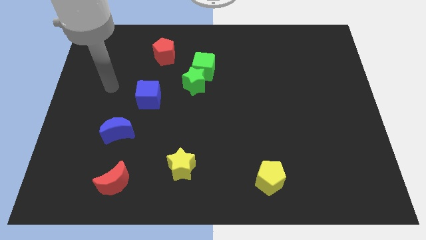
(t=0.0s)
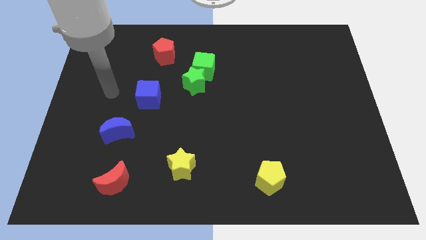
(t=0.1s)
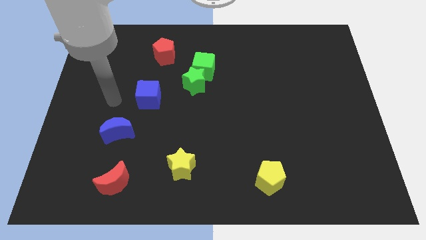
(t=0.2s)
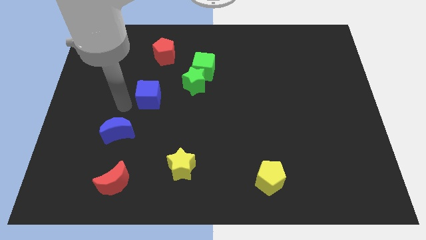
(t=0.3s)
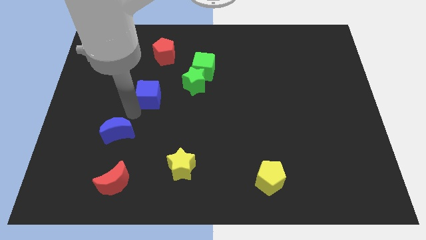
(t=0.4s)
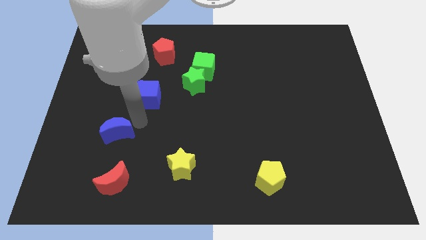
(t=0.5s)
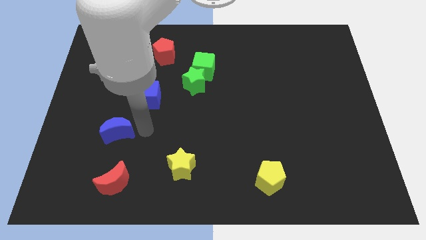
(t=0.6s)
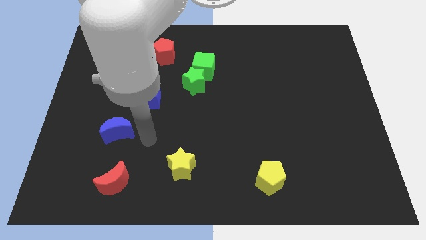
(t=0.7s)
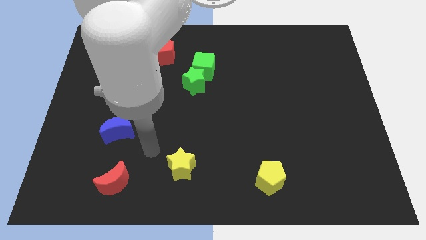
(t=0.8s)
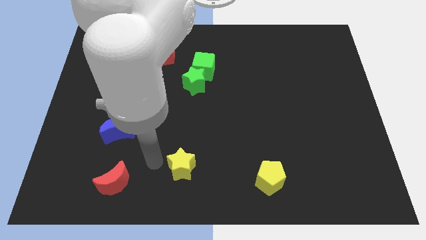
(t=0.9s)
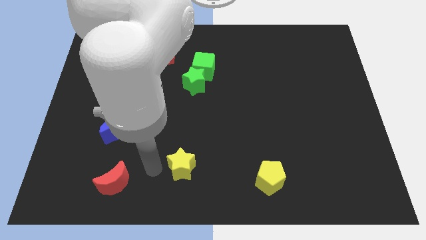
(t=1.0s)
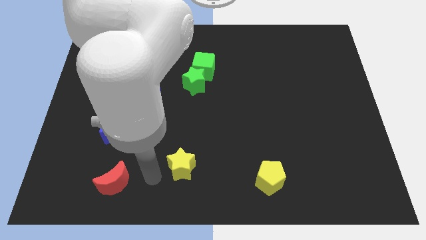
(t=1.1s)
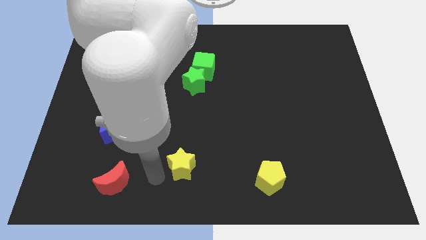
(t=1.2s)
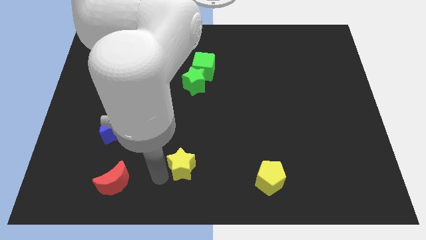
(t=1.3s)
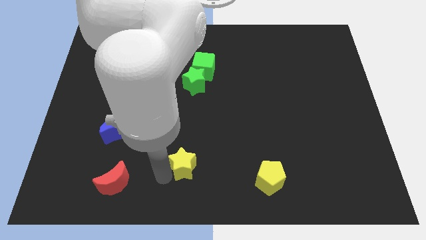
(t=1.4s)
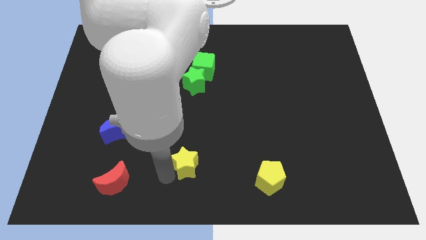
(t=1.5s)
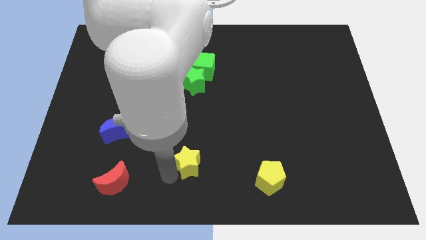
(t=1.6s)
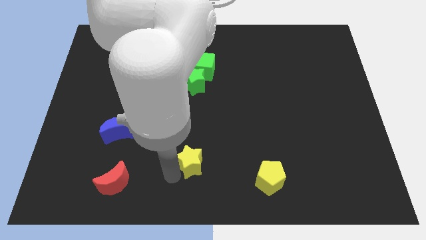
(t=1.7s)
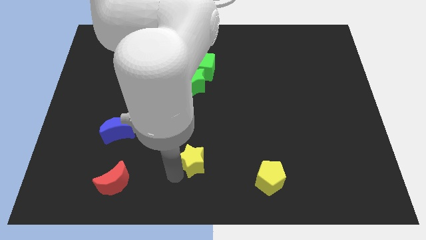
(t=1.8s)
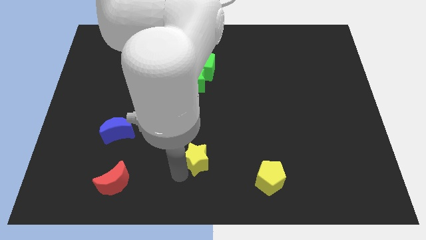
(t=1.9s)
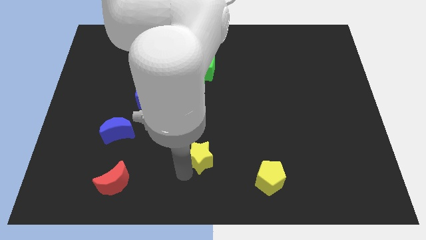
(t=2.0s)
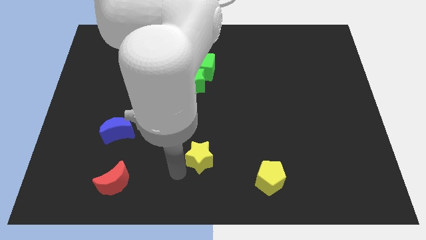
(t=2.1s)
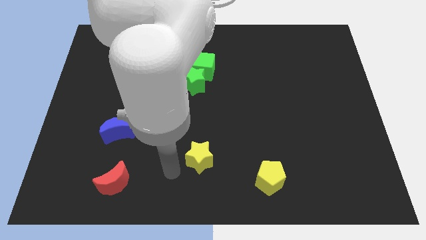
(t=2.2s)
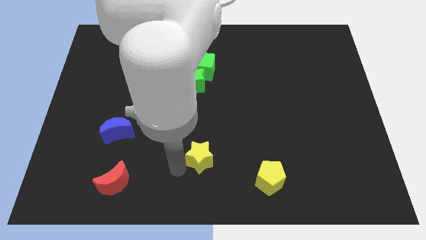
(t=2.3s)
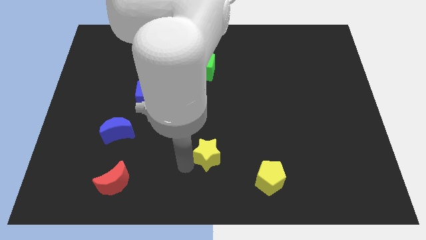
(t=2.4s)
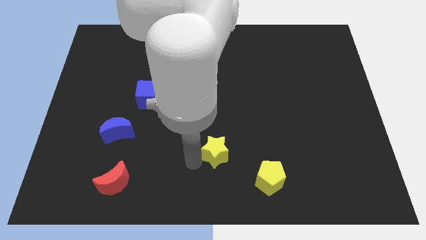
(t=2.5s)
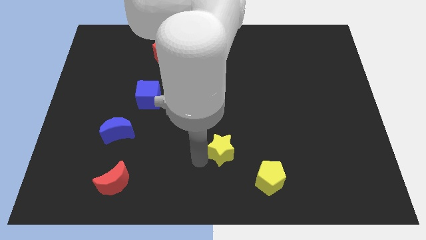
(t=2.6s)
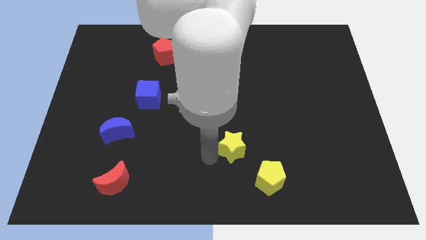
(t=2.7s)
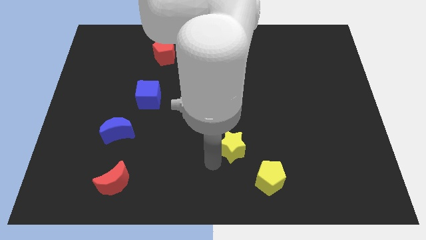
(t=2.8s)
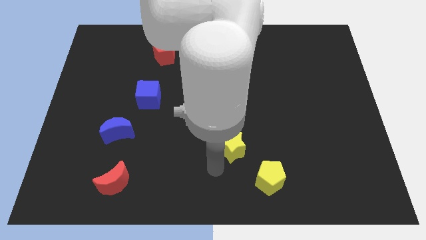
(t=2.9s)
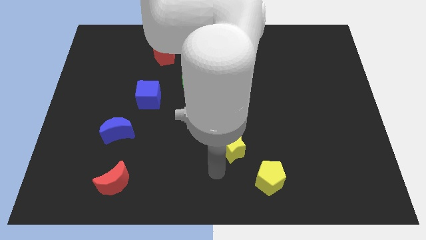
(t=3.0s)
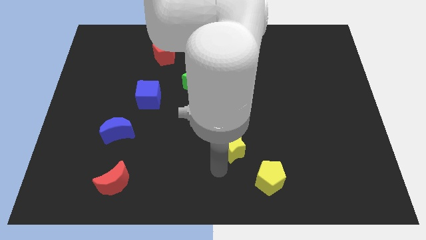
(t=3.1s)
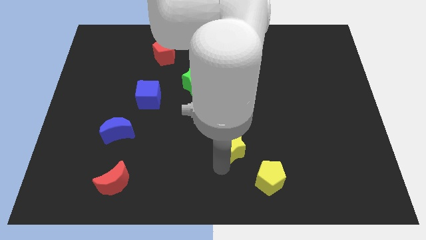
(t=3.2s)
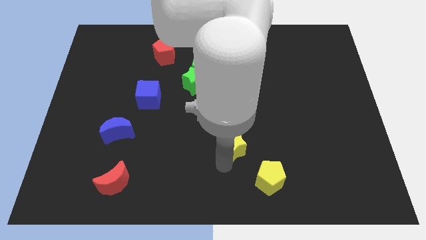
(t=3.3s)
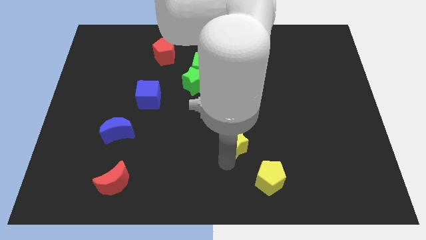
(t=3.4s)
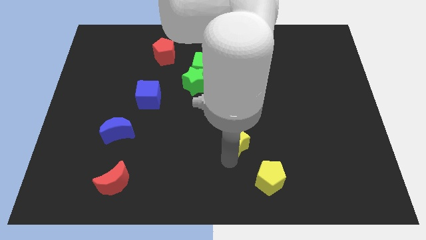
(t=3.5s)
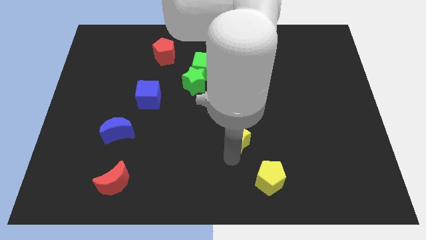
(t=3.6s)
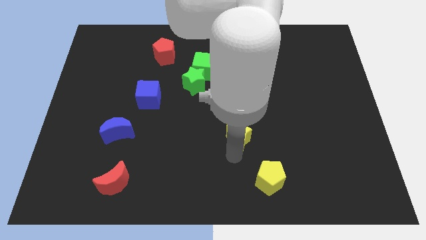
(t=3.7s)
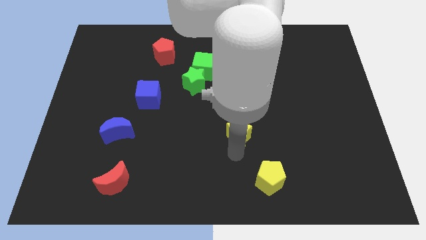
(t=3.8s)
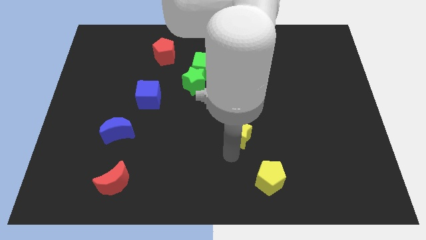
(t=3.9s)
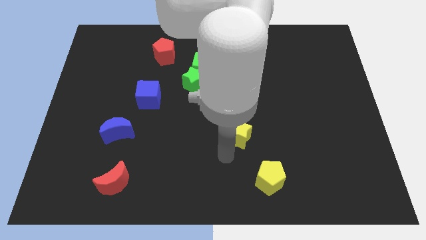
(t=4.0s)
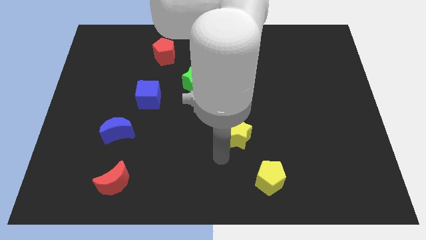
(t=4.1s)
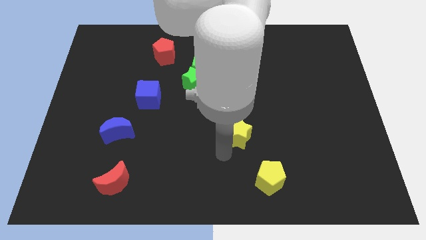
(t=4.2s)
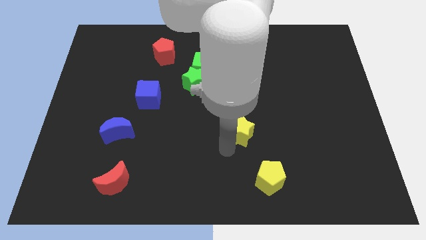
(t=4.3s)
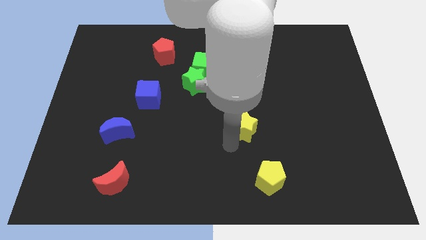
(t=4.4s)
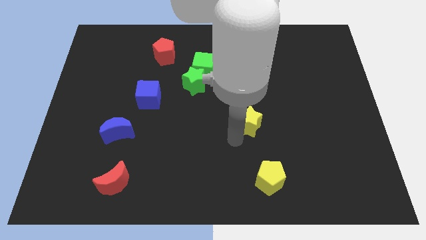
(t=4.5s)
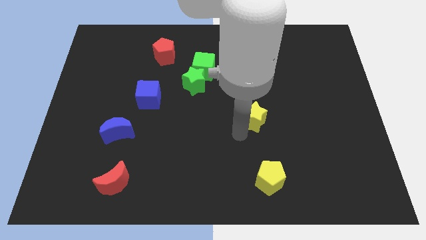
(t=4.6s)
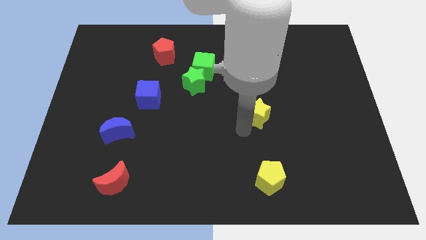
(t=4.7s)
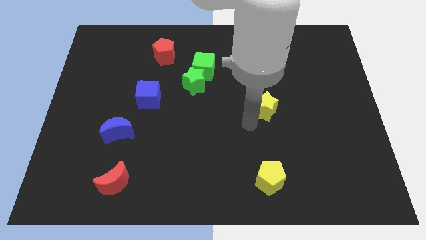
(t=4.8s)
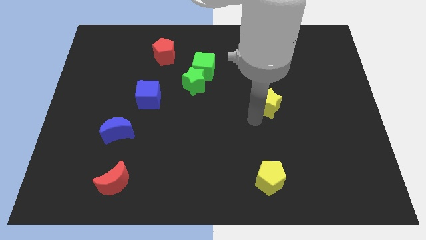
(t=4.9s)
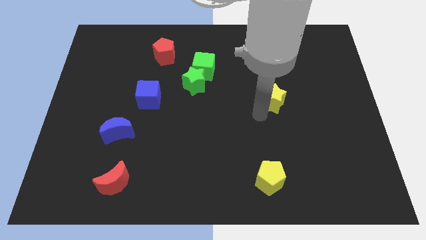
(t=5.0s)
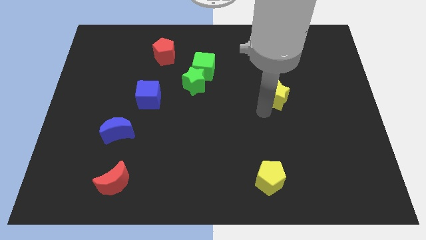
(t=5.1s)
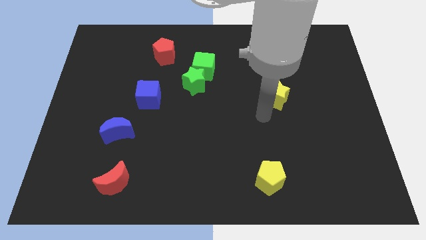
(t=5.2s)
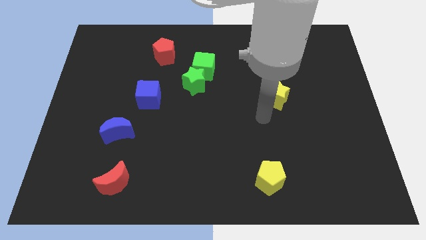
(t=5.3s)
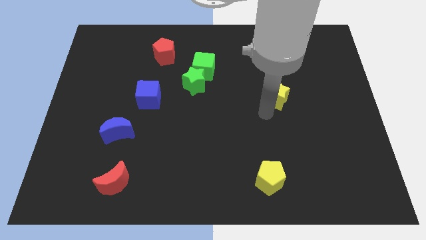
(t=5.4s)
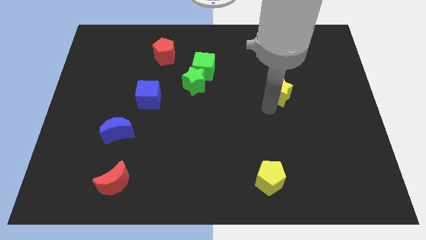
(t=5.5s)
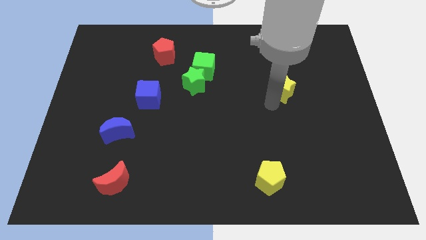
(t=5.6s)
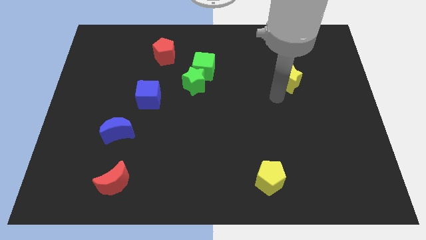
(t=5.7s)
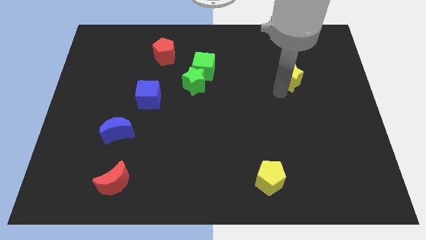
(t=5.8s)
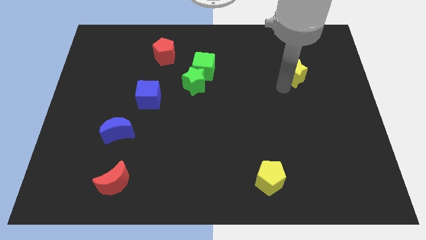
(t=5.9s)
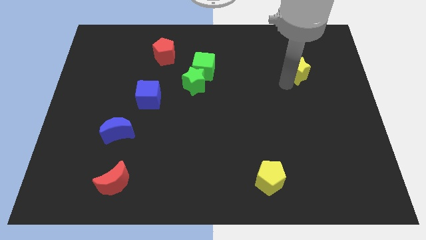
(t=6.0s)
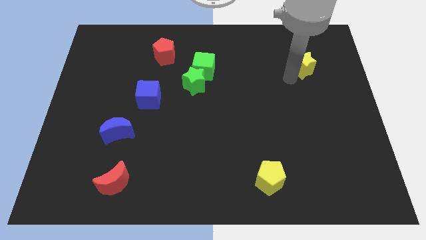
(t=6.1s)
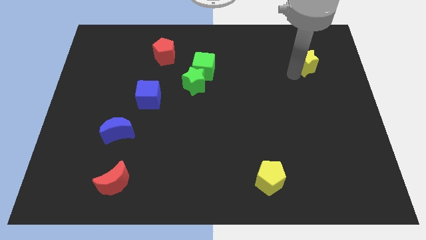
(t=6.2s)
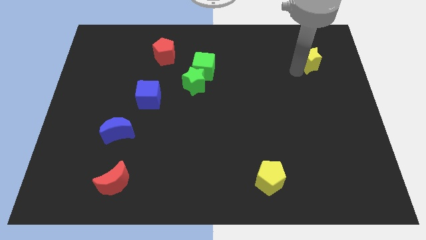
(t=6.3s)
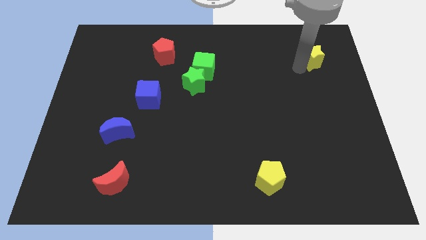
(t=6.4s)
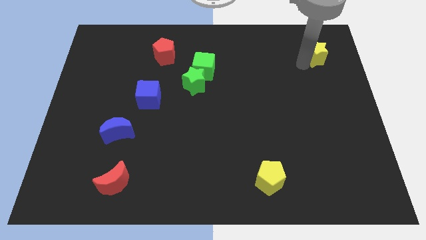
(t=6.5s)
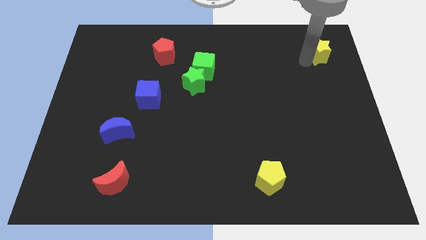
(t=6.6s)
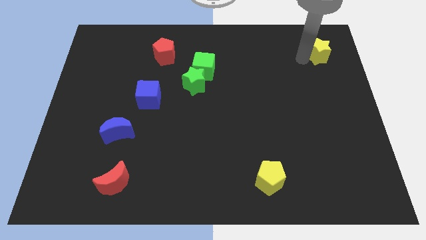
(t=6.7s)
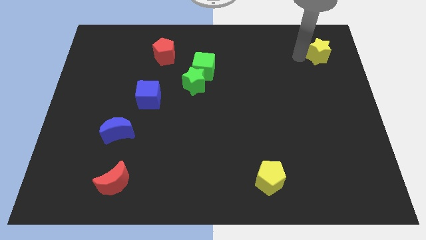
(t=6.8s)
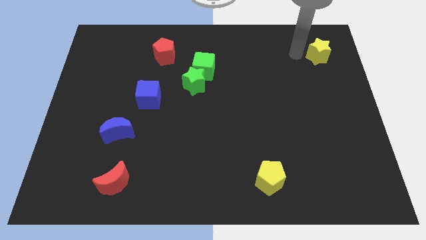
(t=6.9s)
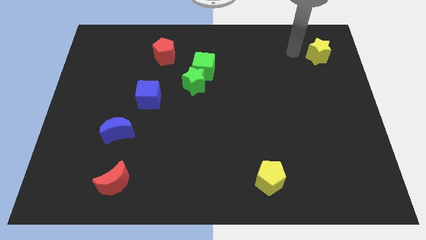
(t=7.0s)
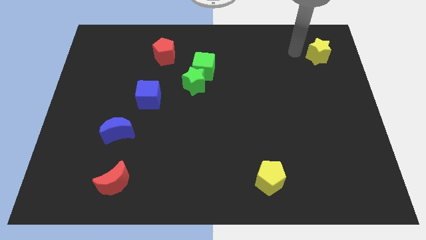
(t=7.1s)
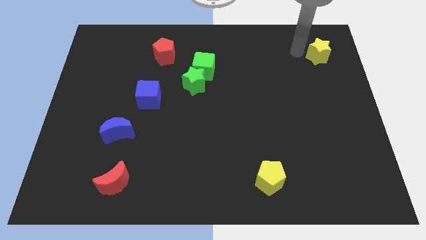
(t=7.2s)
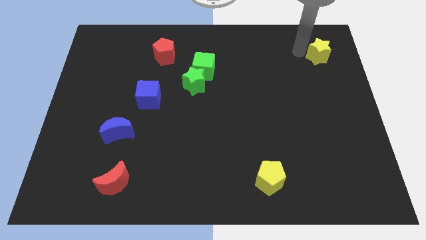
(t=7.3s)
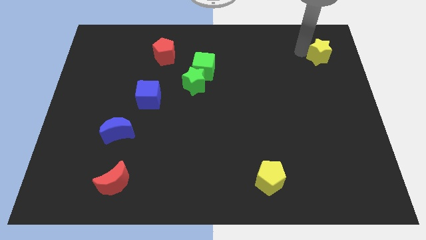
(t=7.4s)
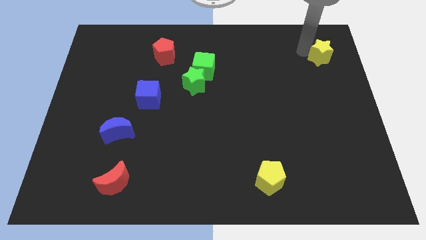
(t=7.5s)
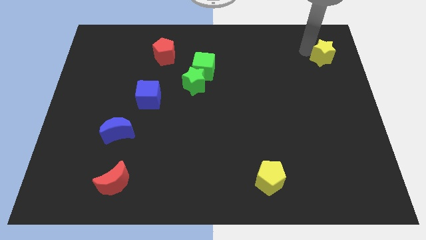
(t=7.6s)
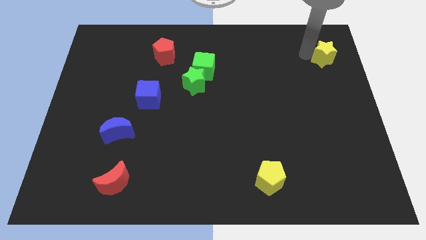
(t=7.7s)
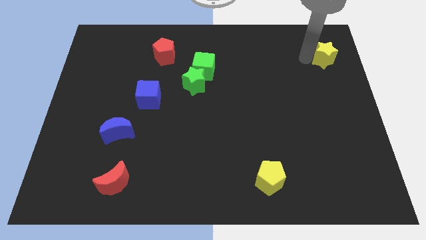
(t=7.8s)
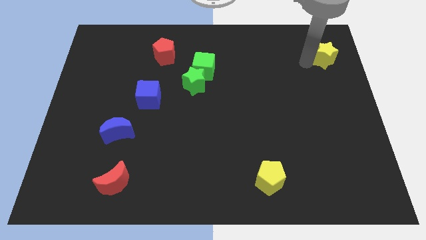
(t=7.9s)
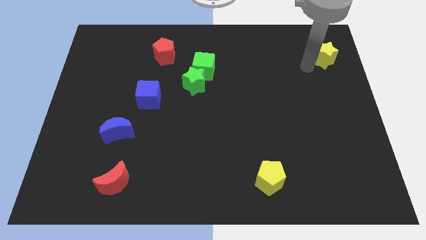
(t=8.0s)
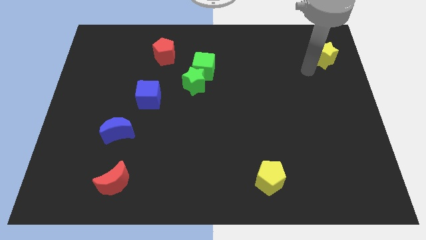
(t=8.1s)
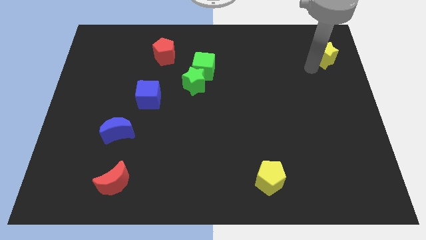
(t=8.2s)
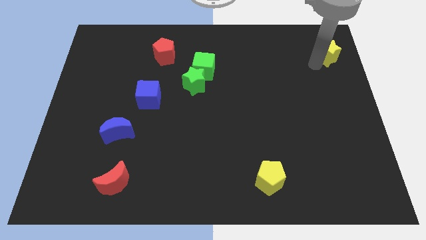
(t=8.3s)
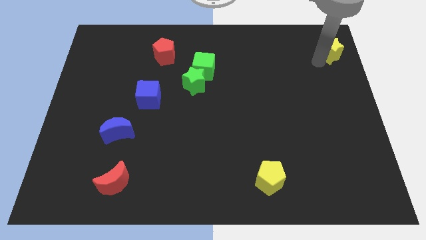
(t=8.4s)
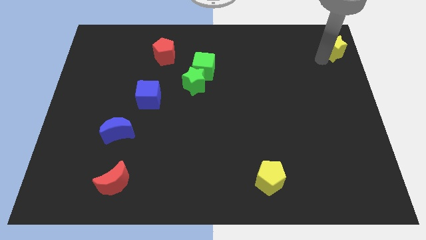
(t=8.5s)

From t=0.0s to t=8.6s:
slide the yellow star to the top right
